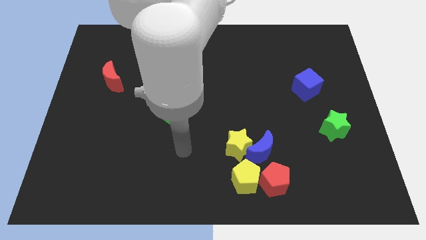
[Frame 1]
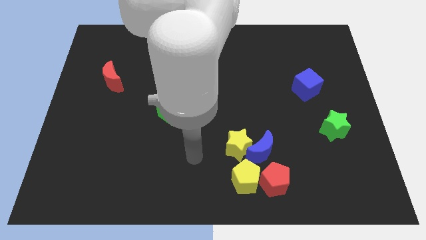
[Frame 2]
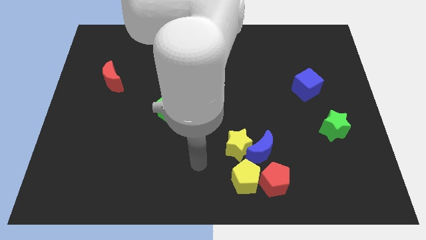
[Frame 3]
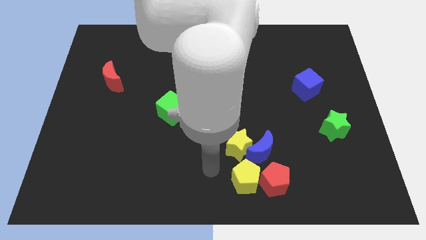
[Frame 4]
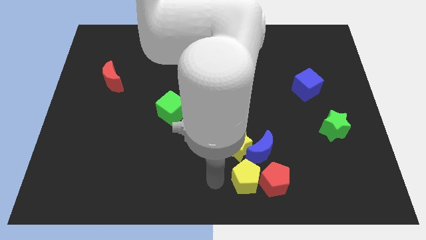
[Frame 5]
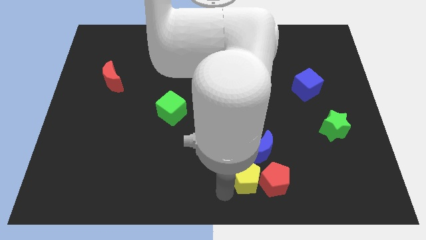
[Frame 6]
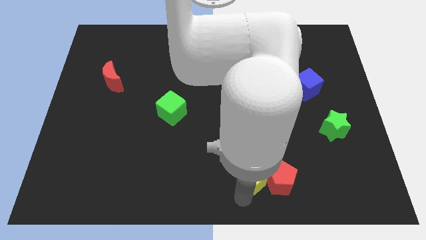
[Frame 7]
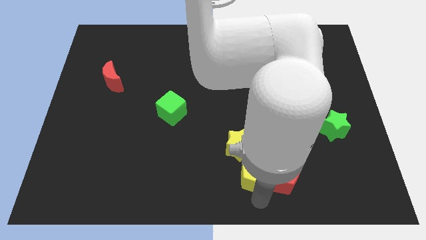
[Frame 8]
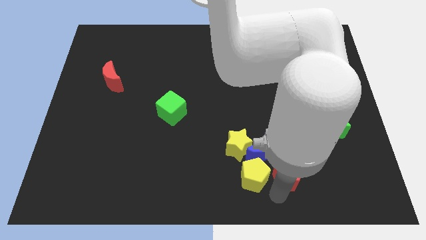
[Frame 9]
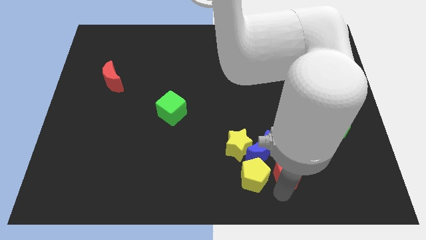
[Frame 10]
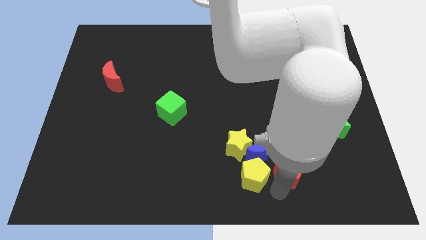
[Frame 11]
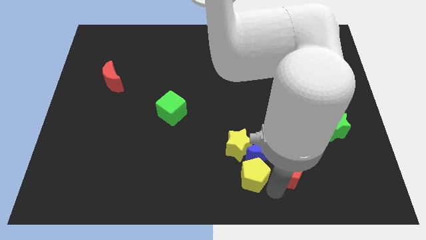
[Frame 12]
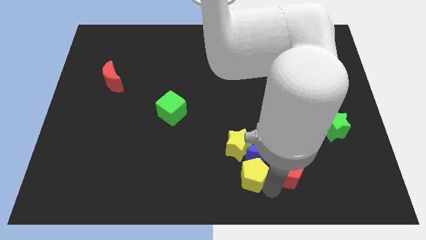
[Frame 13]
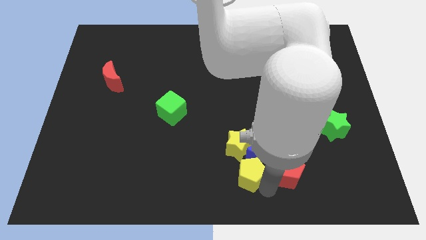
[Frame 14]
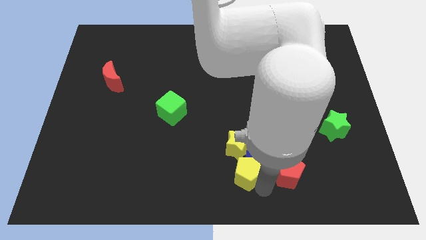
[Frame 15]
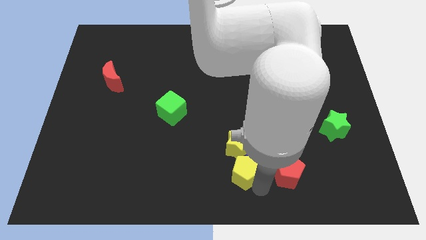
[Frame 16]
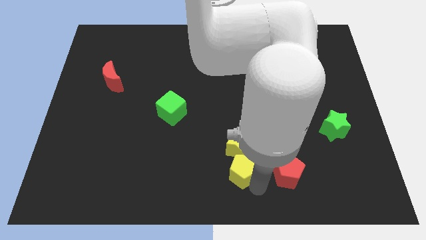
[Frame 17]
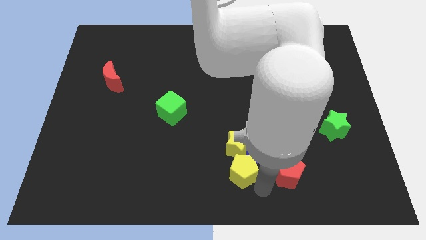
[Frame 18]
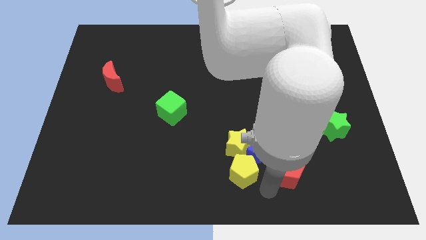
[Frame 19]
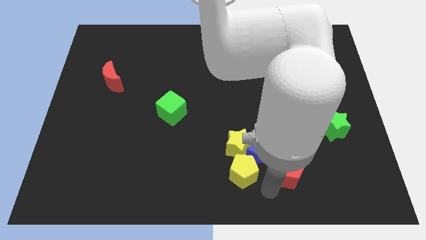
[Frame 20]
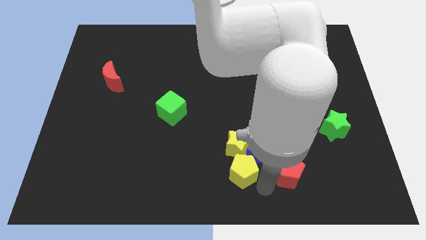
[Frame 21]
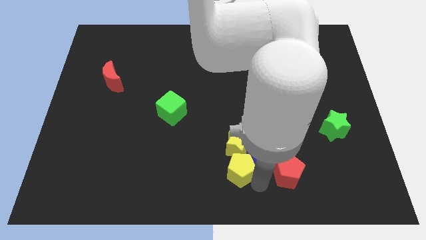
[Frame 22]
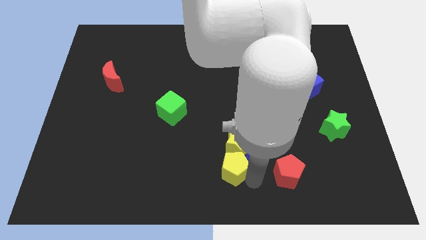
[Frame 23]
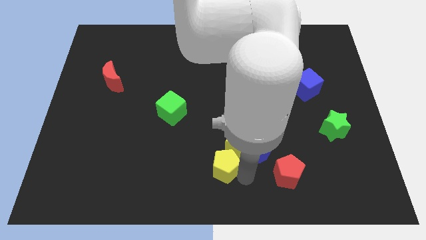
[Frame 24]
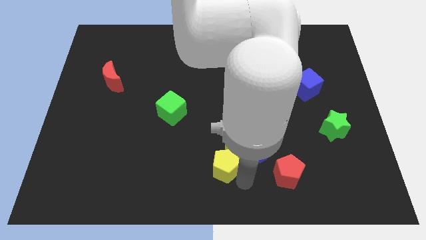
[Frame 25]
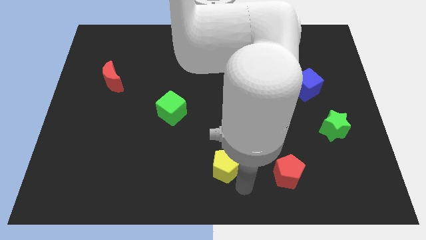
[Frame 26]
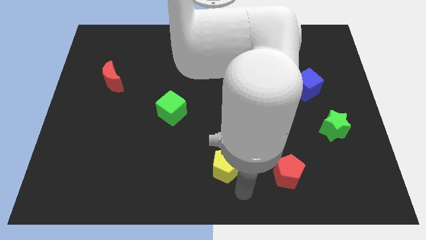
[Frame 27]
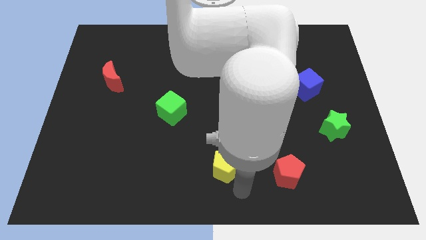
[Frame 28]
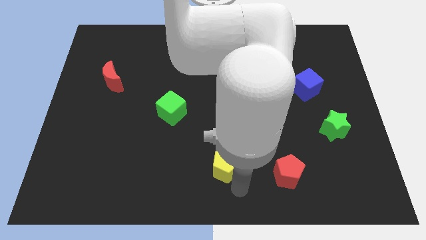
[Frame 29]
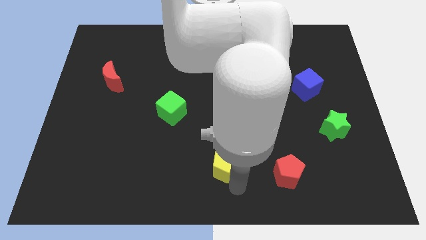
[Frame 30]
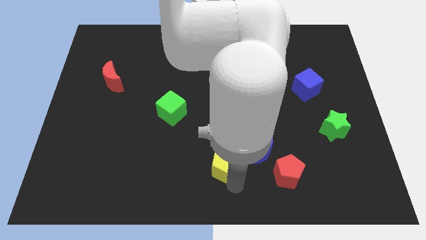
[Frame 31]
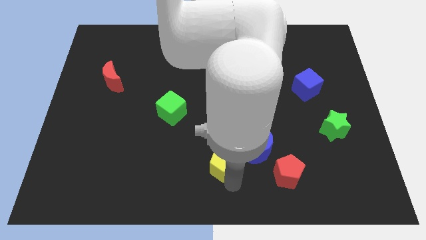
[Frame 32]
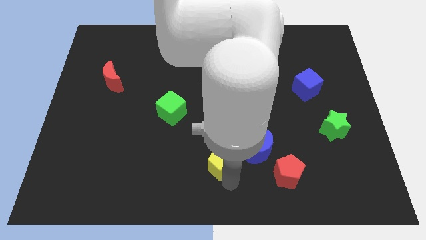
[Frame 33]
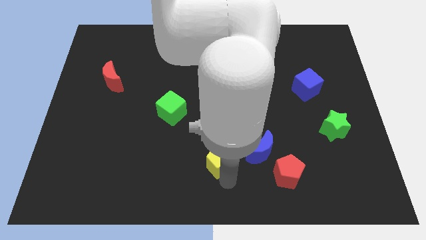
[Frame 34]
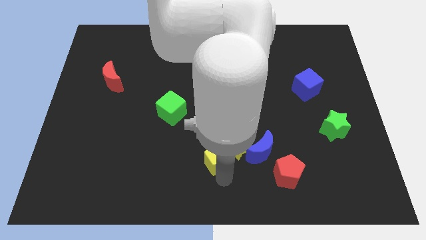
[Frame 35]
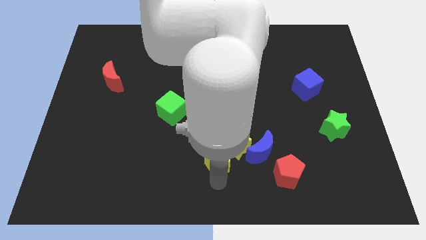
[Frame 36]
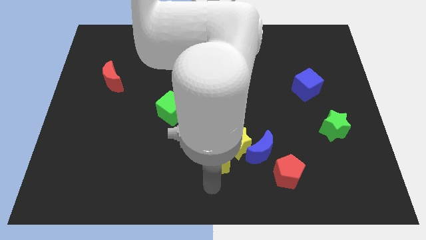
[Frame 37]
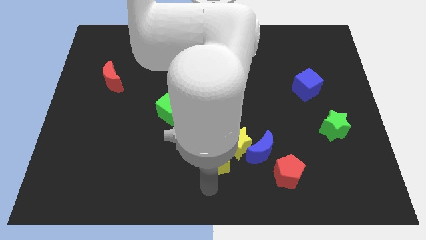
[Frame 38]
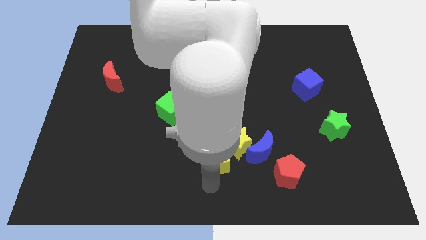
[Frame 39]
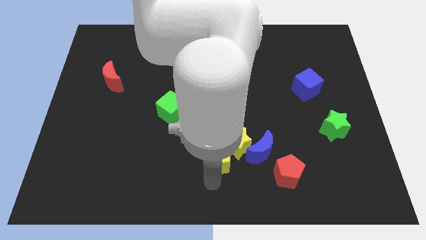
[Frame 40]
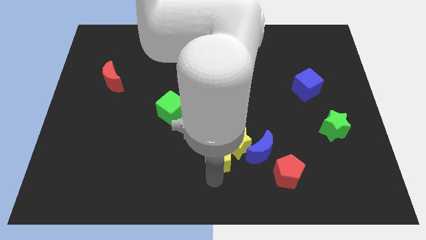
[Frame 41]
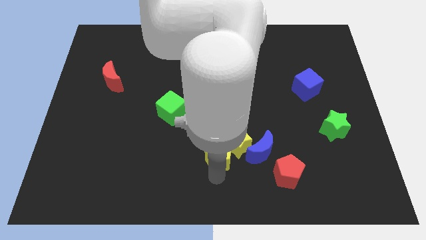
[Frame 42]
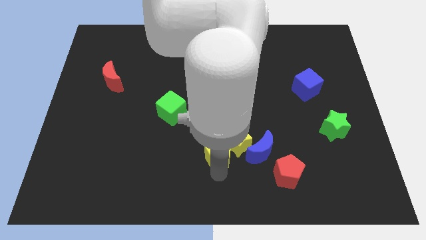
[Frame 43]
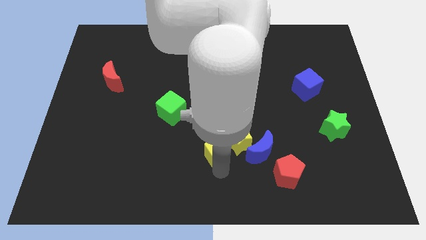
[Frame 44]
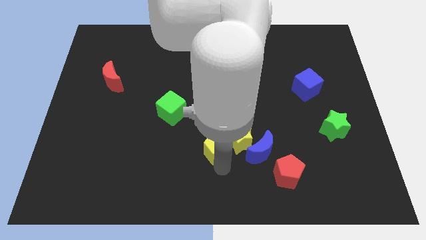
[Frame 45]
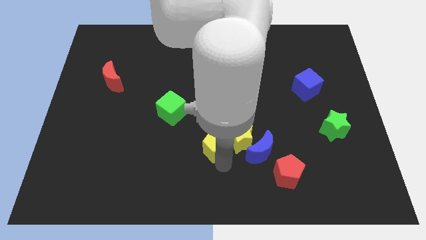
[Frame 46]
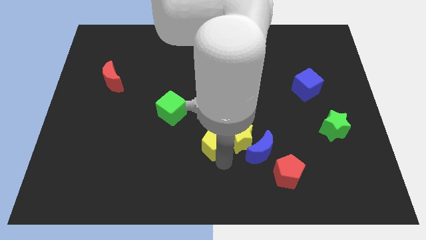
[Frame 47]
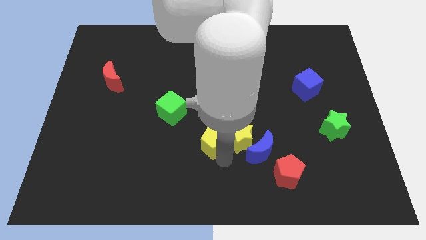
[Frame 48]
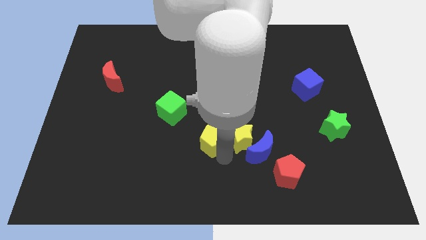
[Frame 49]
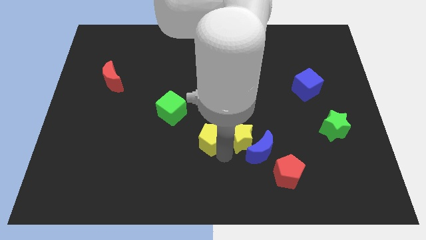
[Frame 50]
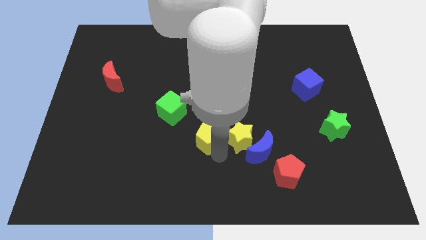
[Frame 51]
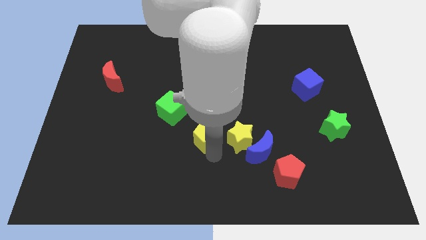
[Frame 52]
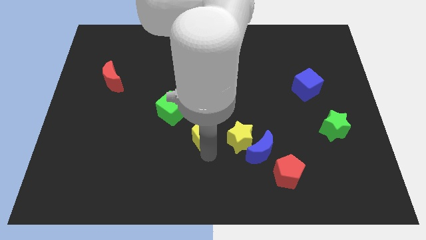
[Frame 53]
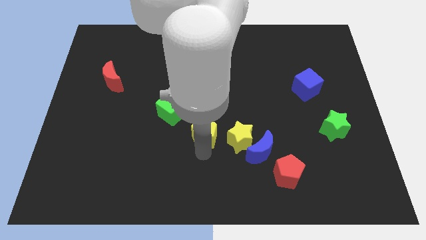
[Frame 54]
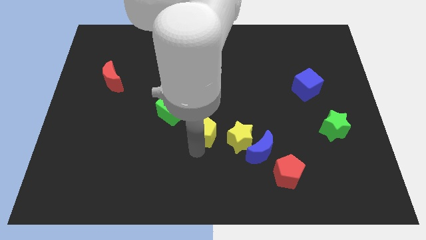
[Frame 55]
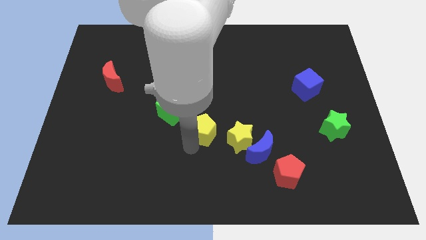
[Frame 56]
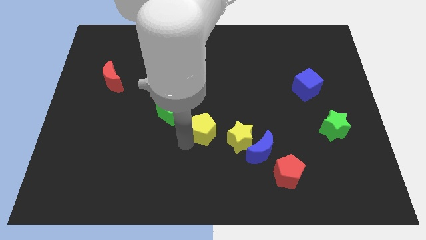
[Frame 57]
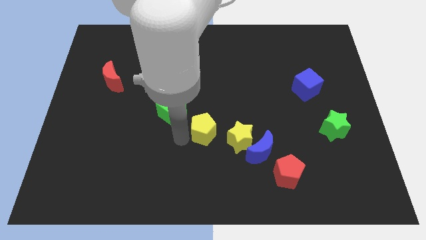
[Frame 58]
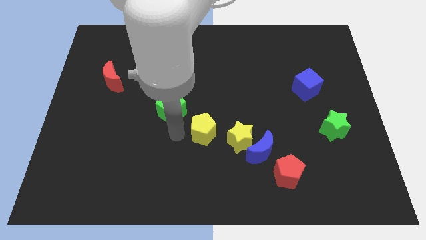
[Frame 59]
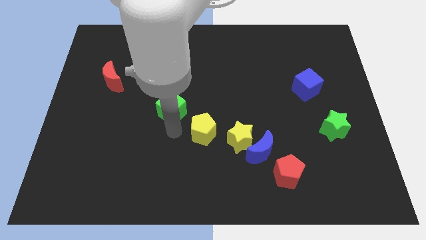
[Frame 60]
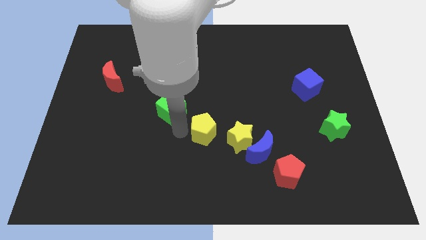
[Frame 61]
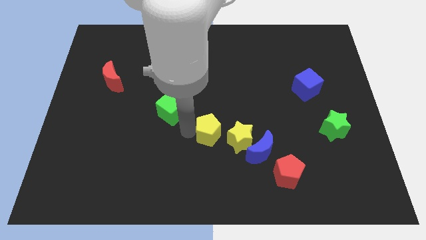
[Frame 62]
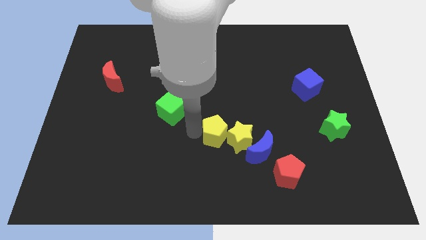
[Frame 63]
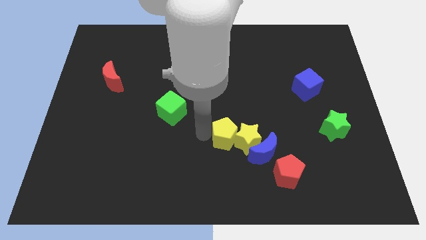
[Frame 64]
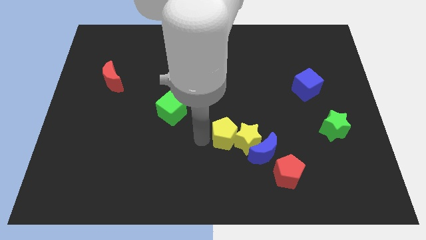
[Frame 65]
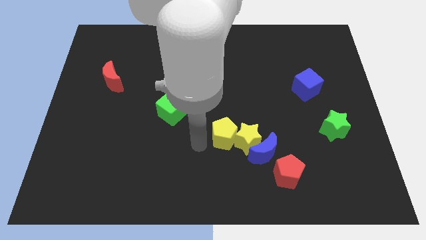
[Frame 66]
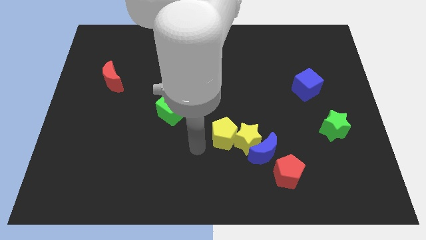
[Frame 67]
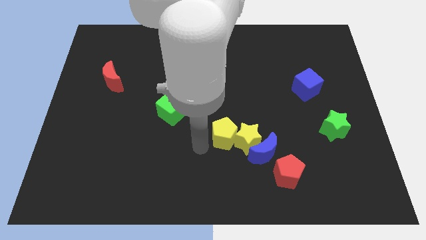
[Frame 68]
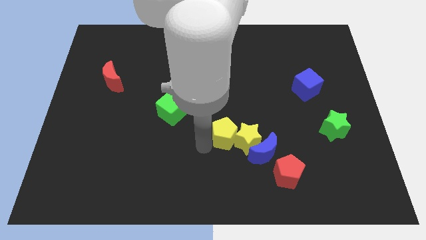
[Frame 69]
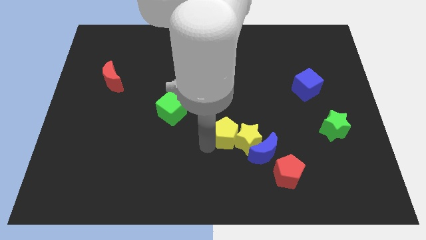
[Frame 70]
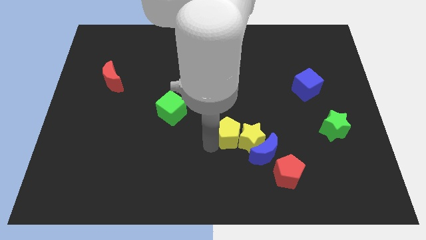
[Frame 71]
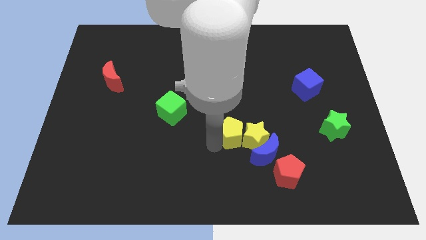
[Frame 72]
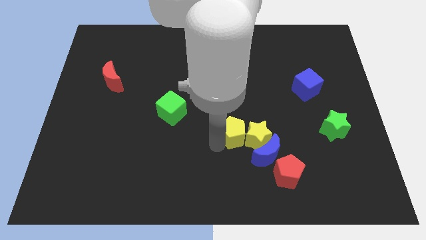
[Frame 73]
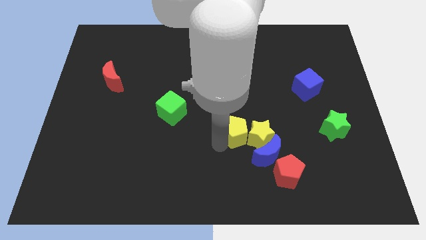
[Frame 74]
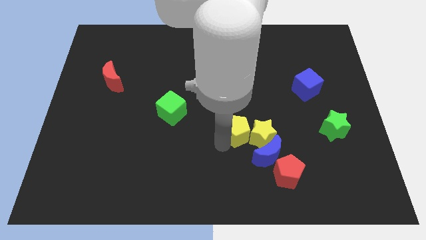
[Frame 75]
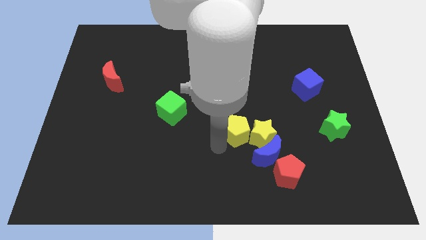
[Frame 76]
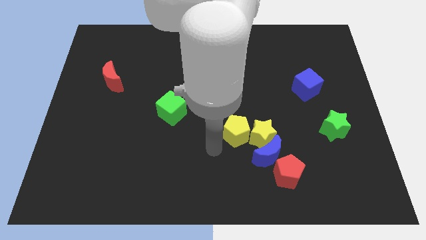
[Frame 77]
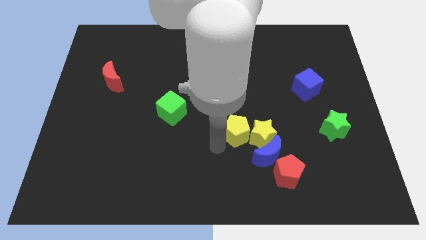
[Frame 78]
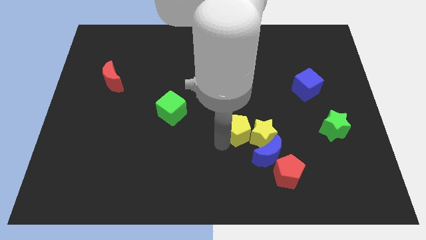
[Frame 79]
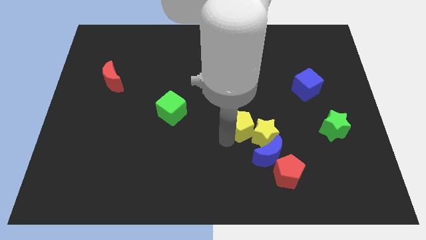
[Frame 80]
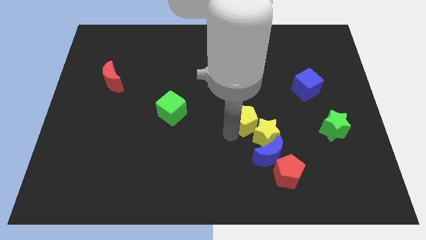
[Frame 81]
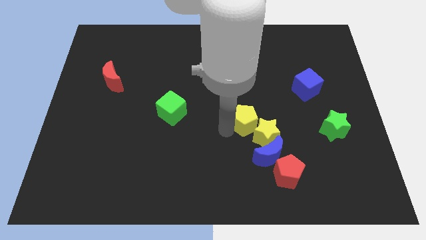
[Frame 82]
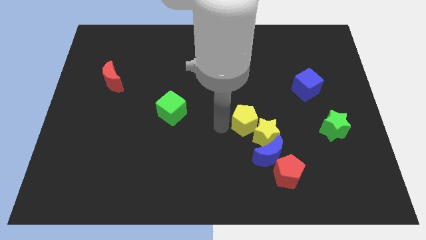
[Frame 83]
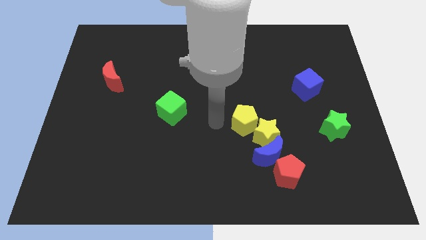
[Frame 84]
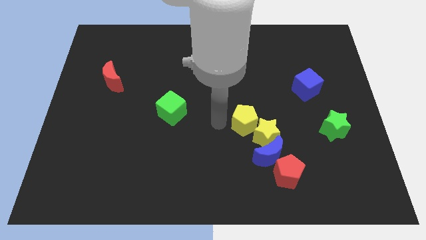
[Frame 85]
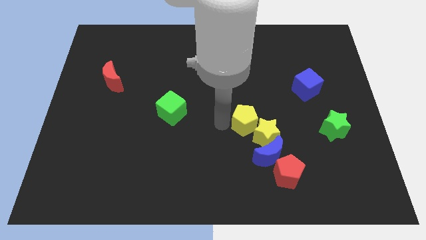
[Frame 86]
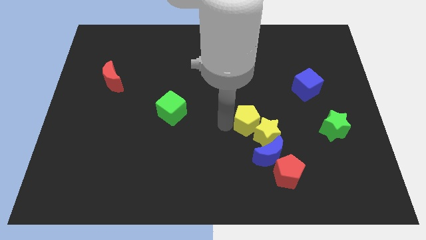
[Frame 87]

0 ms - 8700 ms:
slightly push the yellow pentagon up and then to the right
